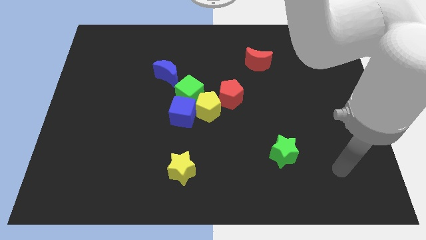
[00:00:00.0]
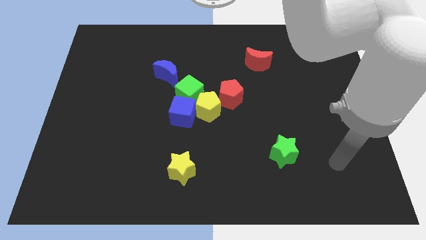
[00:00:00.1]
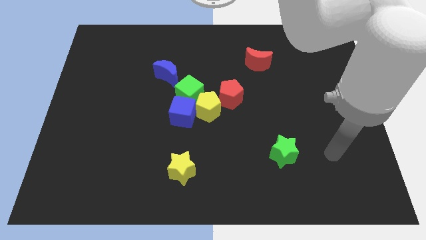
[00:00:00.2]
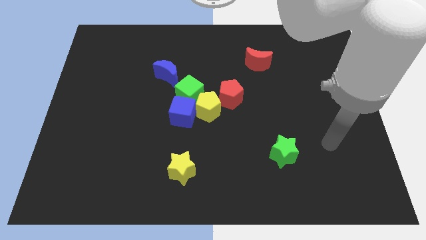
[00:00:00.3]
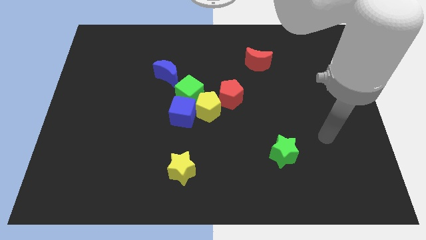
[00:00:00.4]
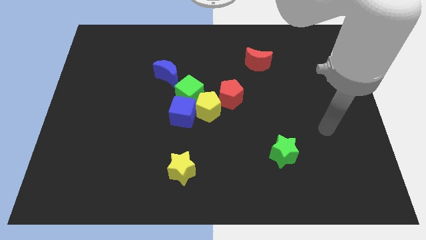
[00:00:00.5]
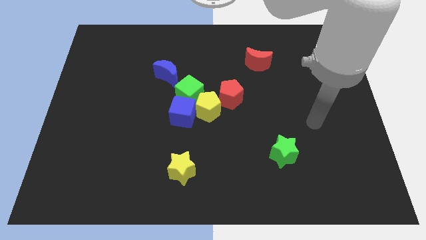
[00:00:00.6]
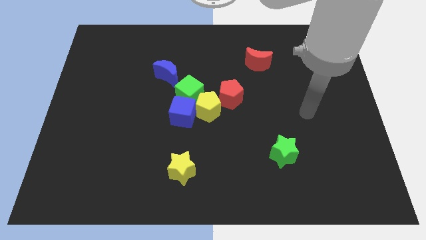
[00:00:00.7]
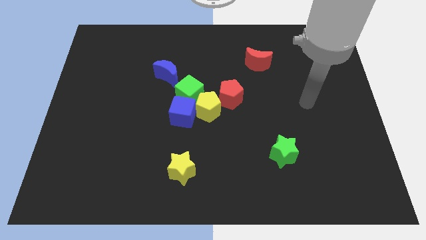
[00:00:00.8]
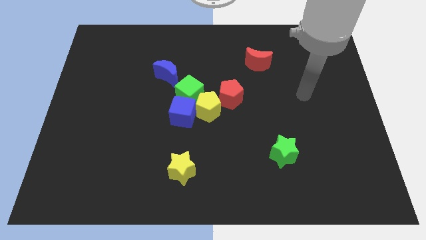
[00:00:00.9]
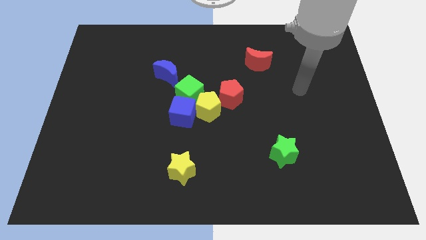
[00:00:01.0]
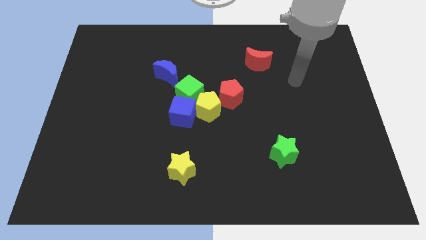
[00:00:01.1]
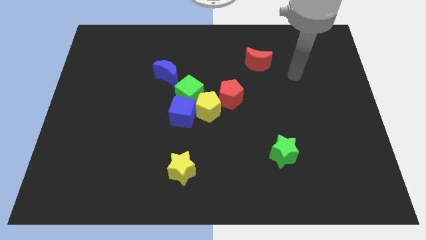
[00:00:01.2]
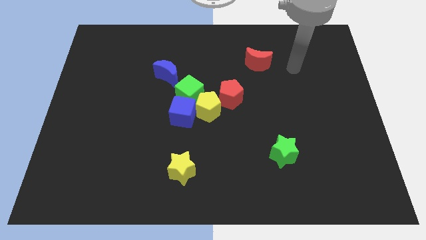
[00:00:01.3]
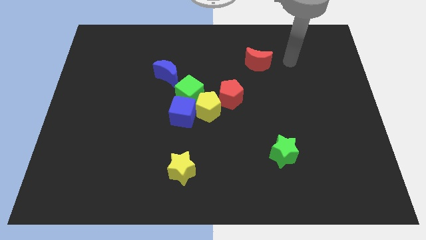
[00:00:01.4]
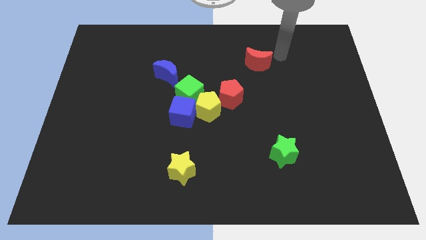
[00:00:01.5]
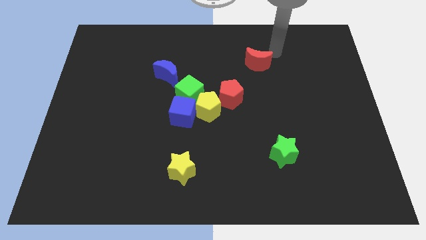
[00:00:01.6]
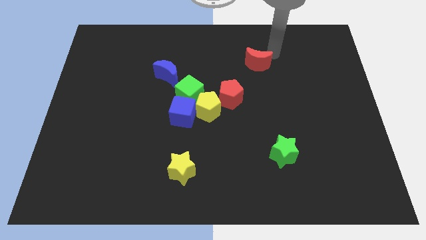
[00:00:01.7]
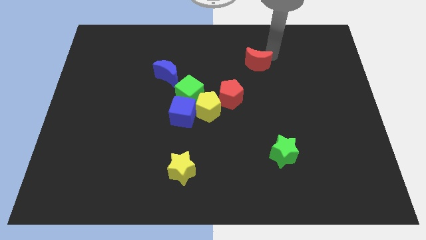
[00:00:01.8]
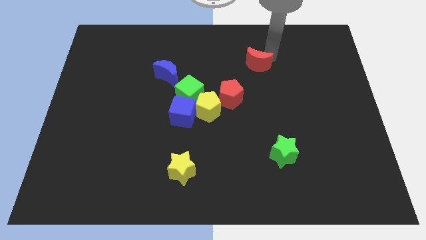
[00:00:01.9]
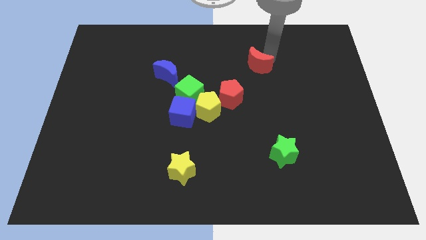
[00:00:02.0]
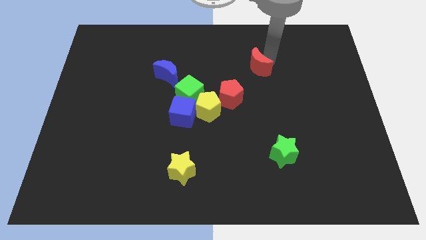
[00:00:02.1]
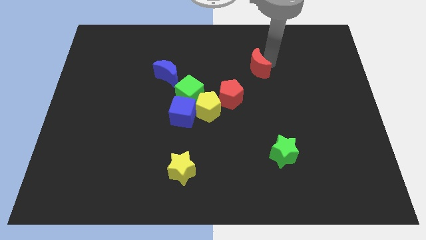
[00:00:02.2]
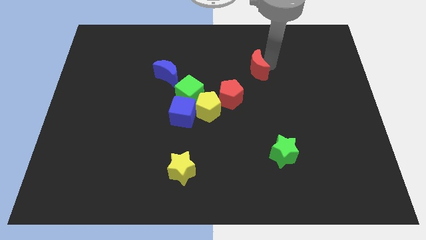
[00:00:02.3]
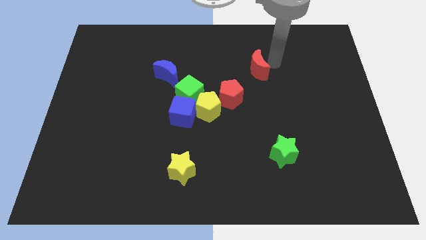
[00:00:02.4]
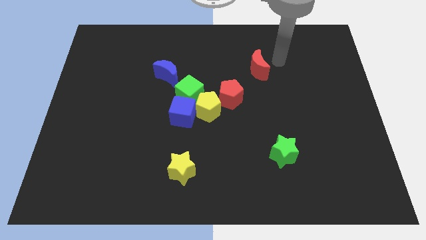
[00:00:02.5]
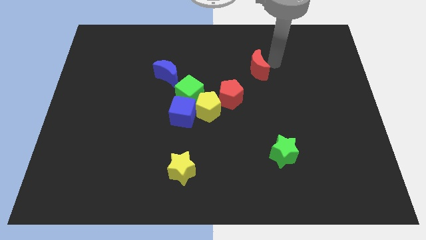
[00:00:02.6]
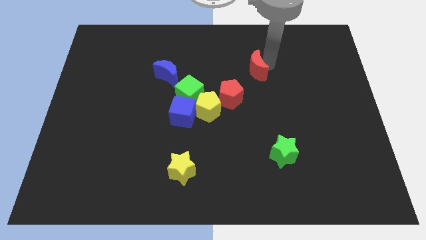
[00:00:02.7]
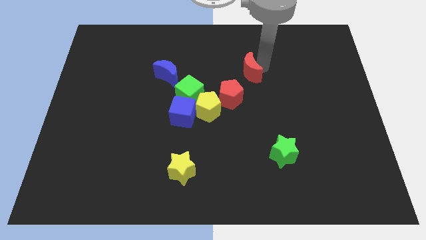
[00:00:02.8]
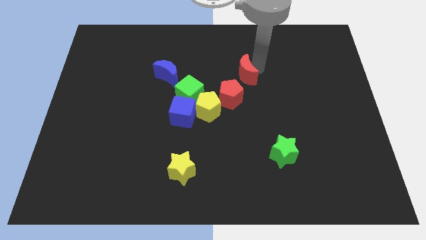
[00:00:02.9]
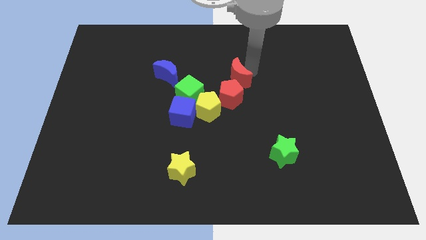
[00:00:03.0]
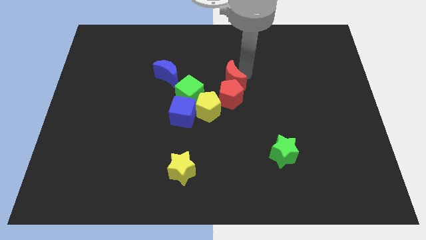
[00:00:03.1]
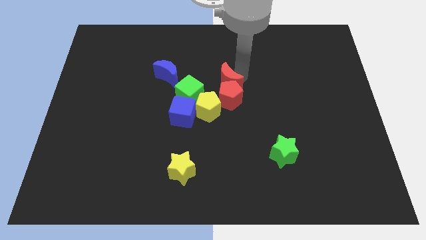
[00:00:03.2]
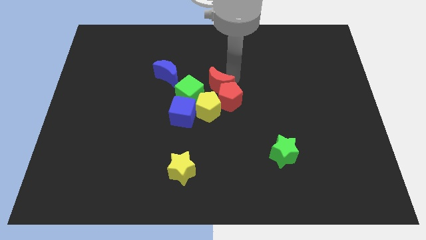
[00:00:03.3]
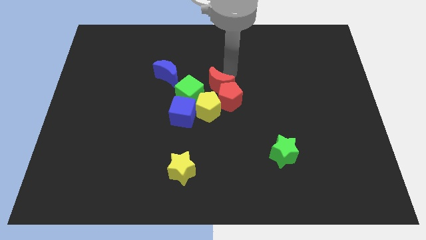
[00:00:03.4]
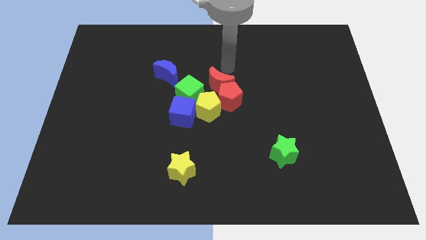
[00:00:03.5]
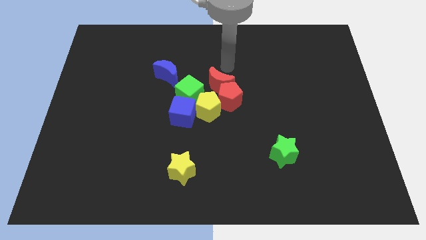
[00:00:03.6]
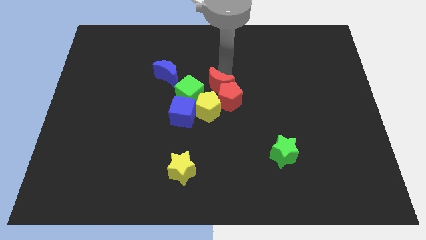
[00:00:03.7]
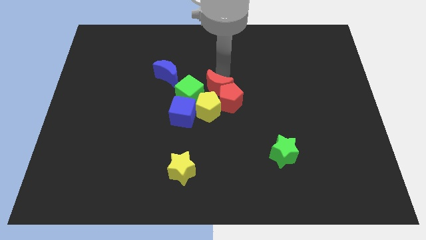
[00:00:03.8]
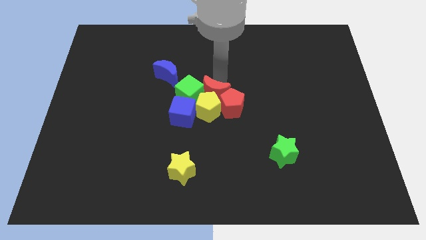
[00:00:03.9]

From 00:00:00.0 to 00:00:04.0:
put the red moon towards the yellow pentagon

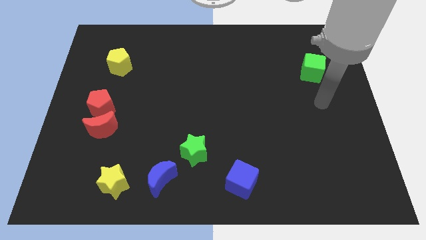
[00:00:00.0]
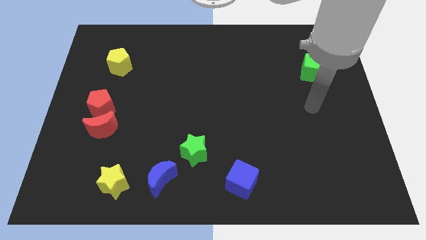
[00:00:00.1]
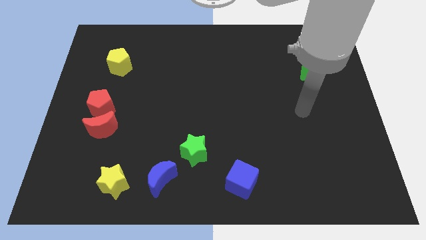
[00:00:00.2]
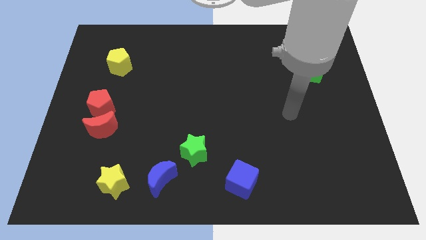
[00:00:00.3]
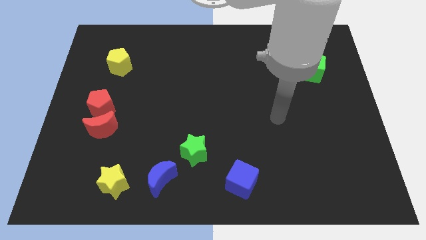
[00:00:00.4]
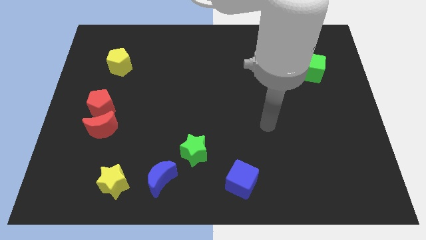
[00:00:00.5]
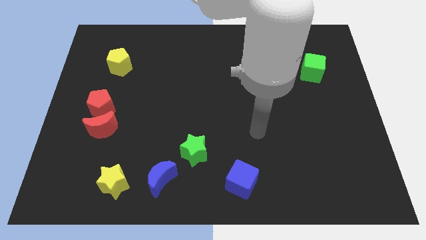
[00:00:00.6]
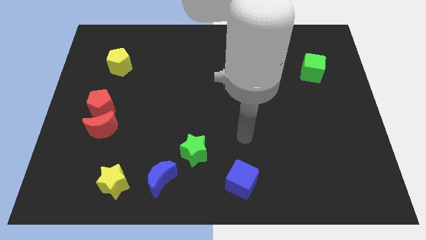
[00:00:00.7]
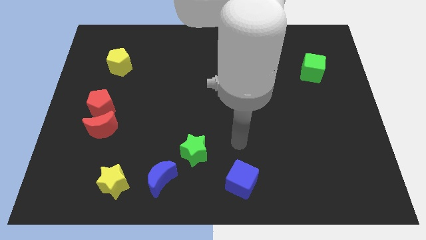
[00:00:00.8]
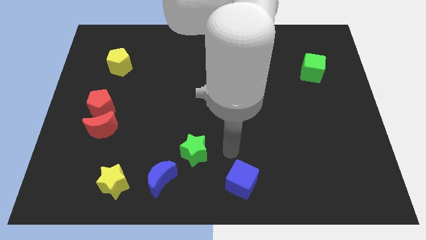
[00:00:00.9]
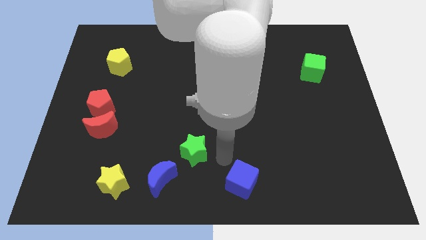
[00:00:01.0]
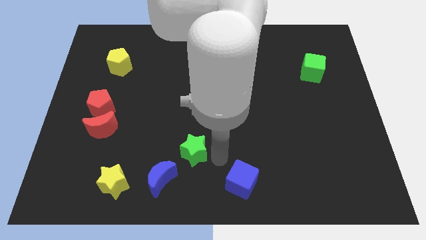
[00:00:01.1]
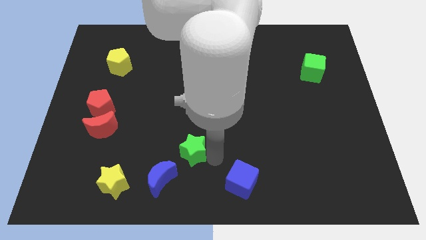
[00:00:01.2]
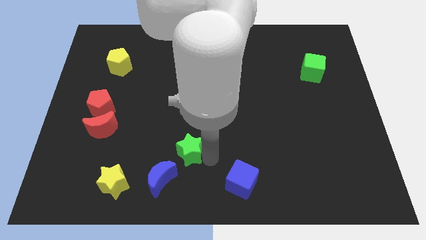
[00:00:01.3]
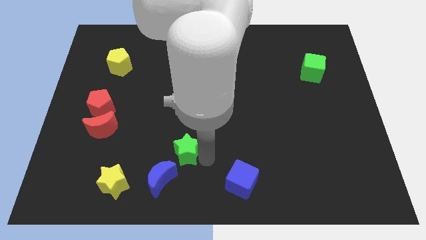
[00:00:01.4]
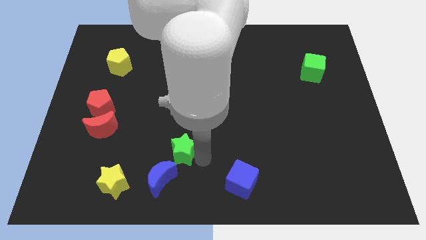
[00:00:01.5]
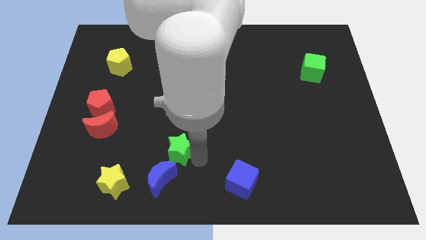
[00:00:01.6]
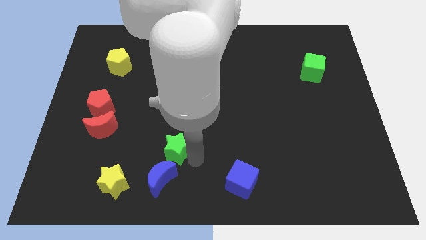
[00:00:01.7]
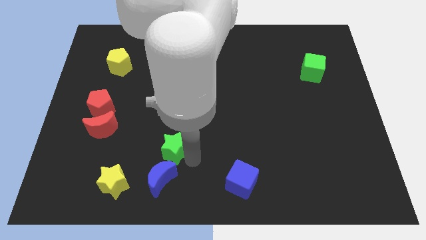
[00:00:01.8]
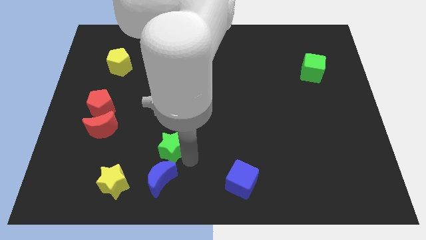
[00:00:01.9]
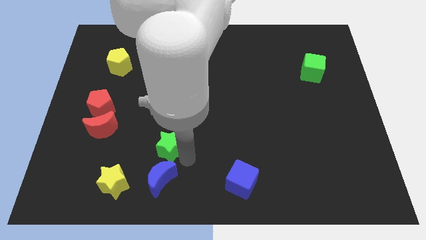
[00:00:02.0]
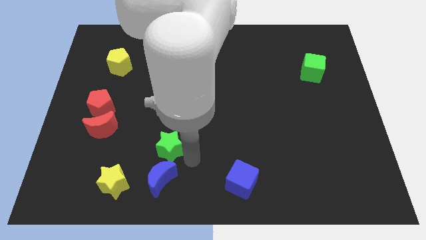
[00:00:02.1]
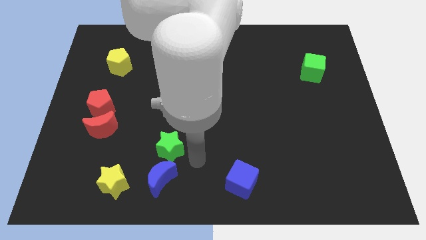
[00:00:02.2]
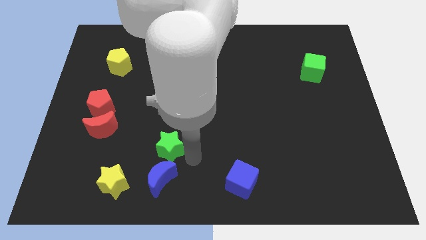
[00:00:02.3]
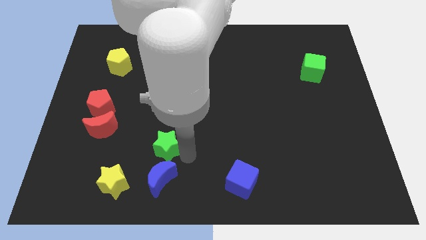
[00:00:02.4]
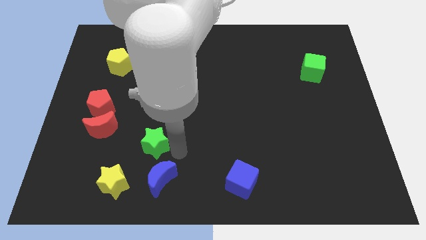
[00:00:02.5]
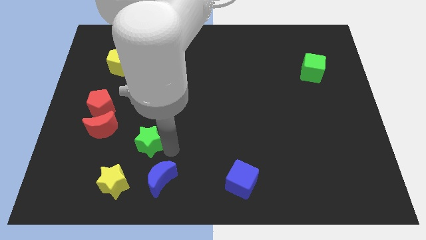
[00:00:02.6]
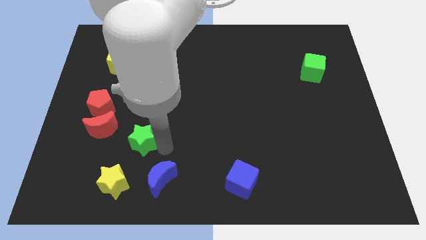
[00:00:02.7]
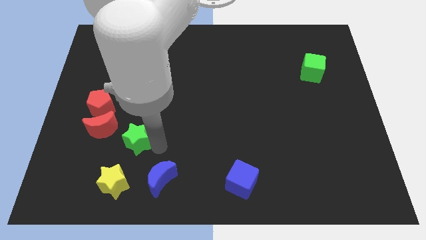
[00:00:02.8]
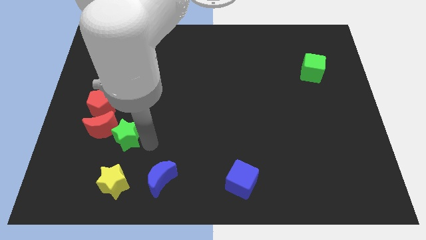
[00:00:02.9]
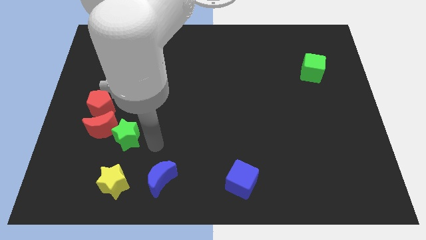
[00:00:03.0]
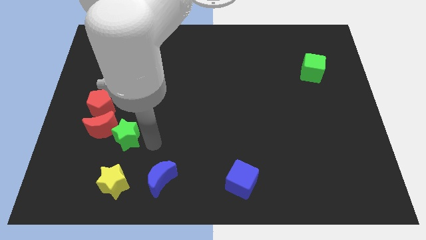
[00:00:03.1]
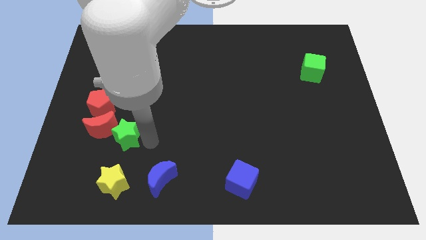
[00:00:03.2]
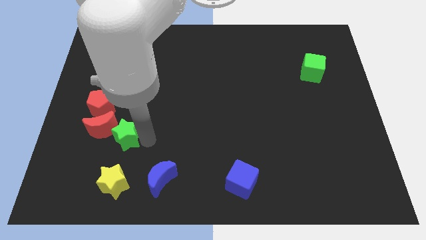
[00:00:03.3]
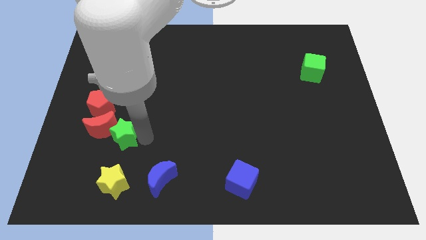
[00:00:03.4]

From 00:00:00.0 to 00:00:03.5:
slide the green star next to the red moon

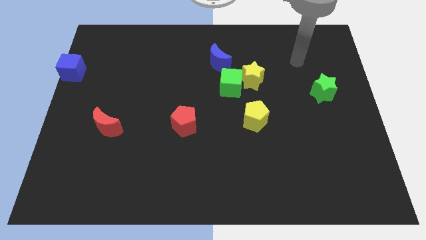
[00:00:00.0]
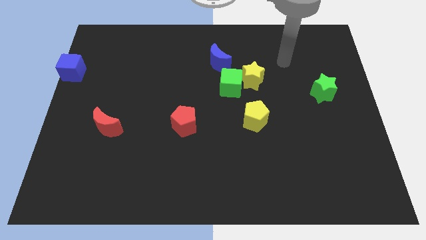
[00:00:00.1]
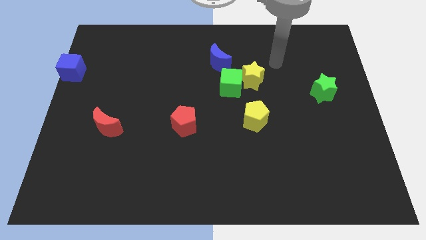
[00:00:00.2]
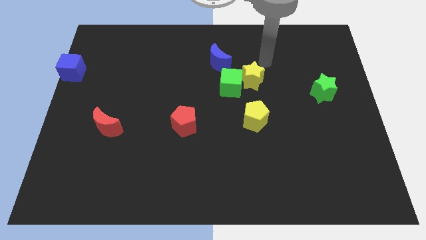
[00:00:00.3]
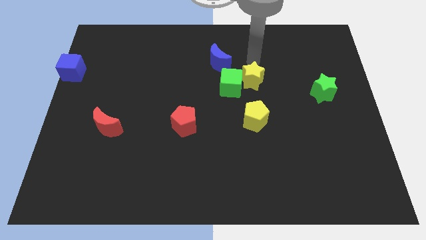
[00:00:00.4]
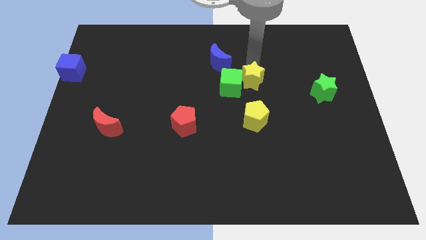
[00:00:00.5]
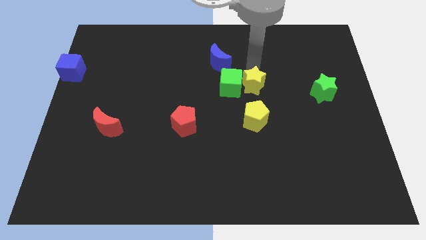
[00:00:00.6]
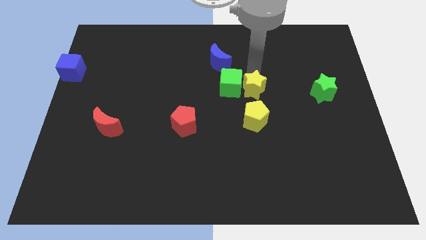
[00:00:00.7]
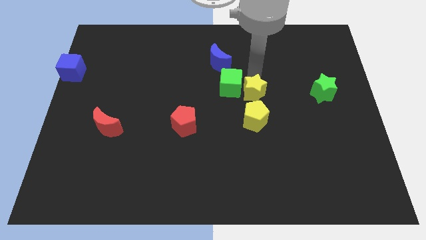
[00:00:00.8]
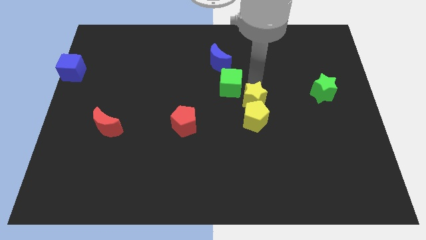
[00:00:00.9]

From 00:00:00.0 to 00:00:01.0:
move the yellow star next to the yellow pentagon
